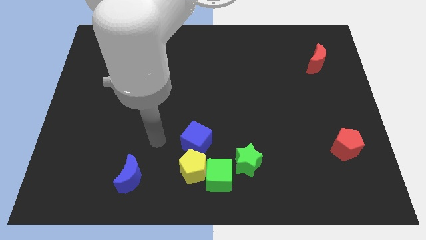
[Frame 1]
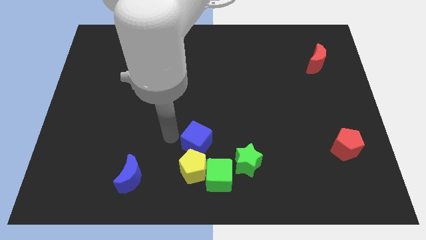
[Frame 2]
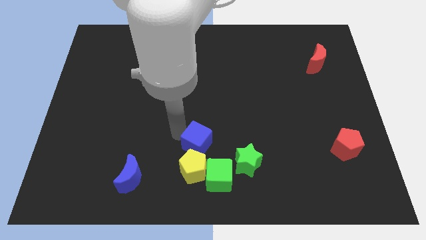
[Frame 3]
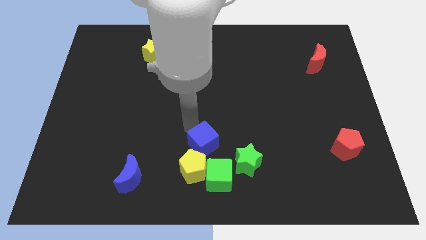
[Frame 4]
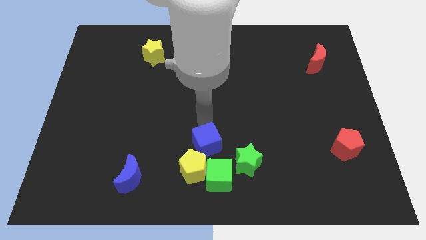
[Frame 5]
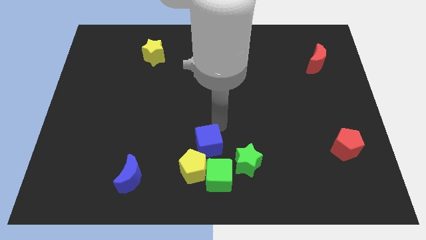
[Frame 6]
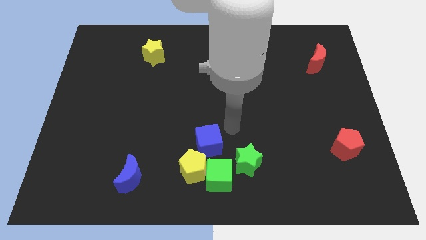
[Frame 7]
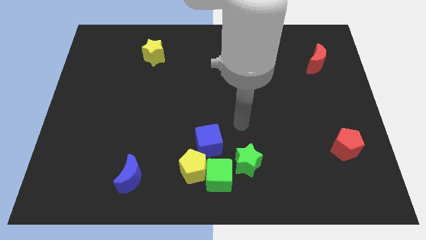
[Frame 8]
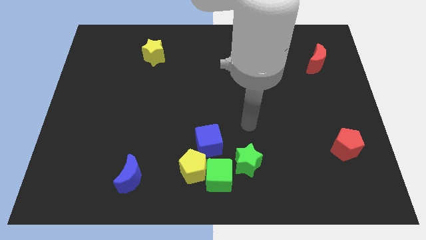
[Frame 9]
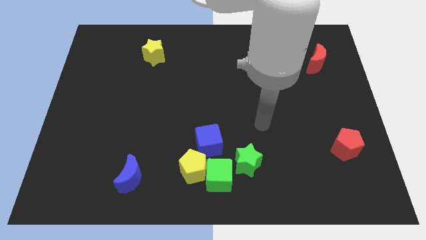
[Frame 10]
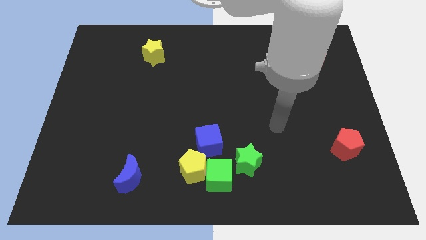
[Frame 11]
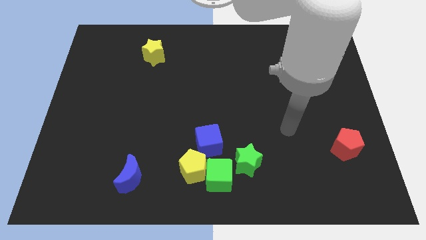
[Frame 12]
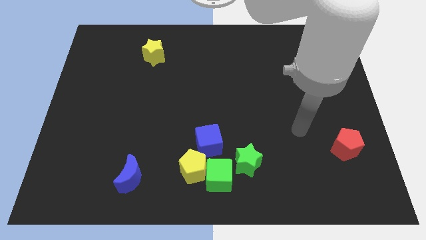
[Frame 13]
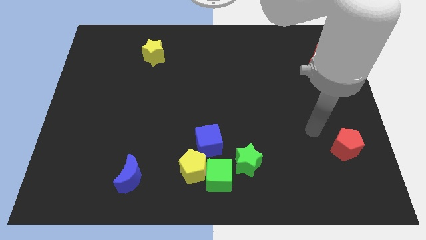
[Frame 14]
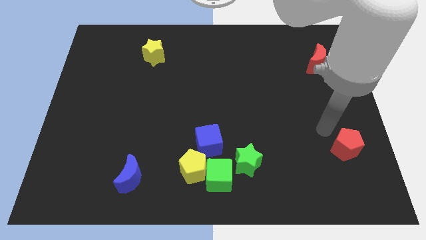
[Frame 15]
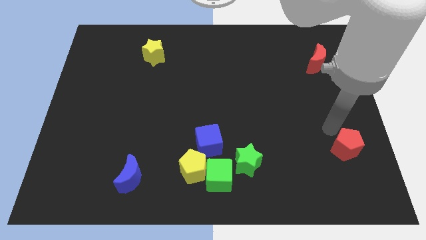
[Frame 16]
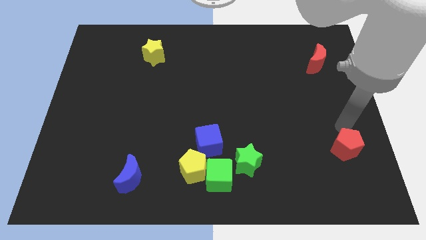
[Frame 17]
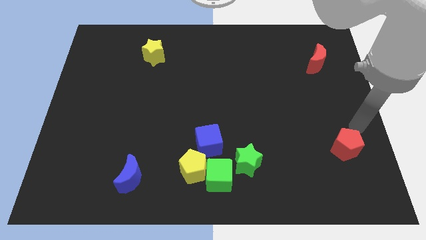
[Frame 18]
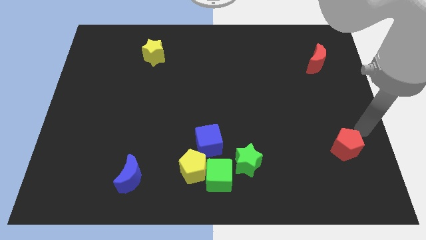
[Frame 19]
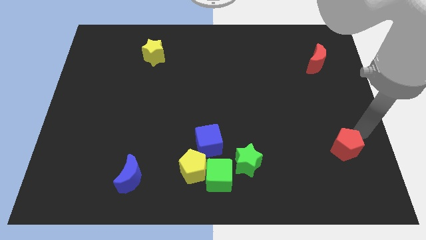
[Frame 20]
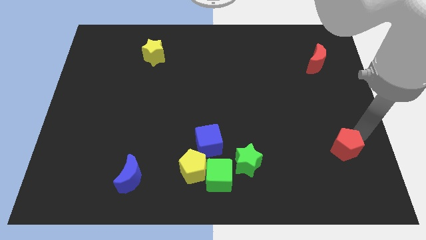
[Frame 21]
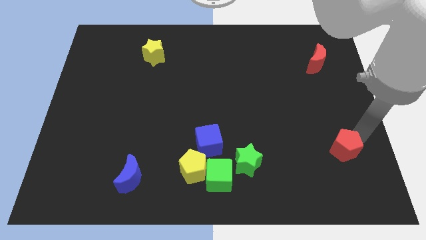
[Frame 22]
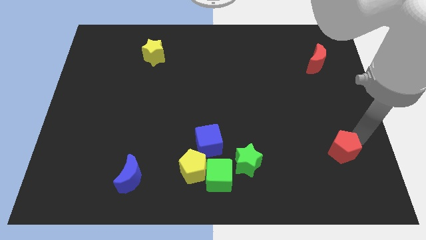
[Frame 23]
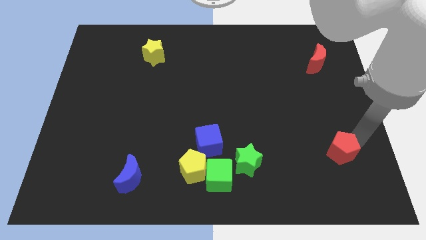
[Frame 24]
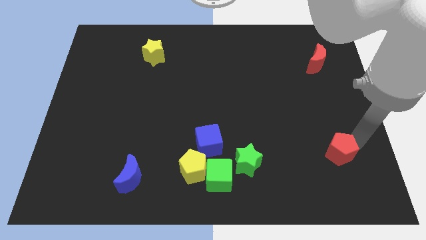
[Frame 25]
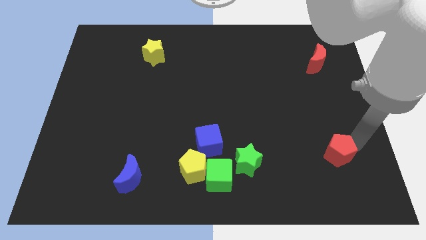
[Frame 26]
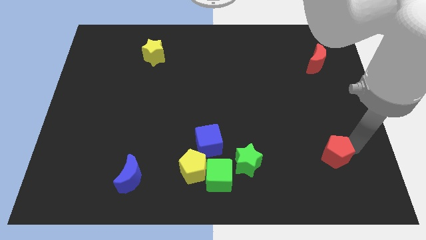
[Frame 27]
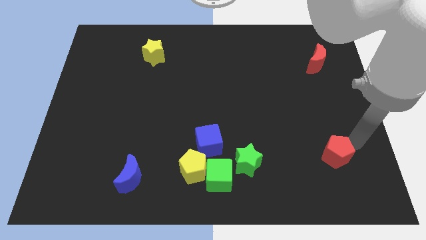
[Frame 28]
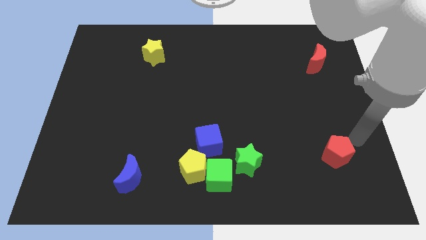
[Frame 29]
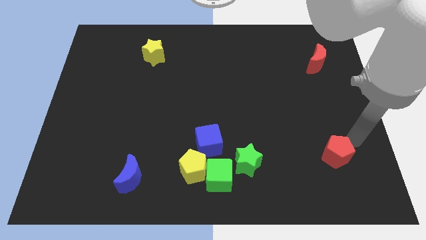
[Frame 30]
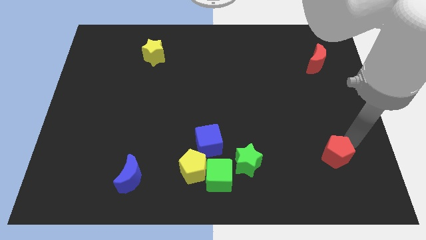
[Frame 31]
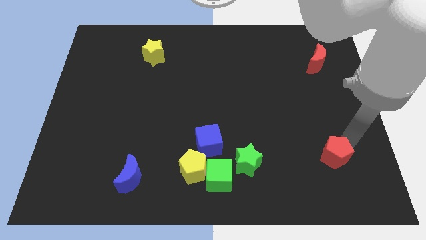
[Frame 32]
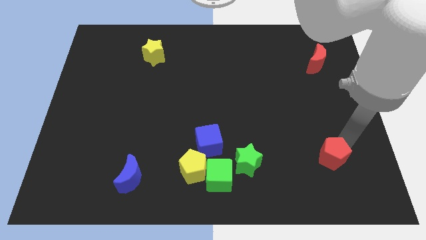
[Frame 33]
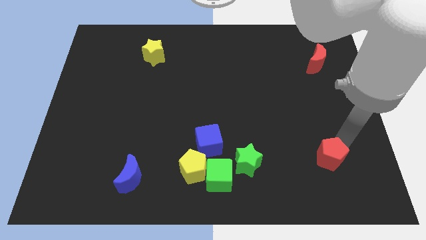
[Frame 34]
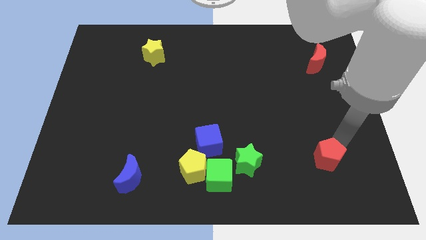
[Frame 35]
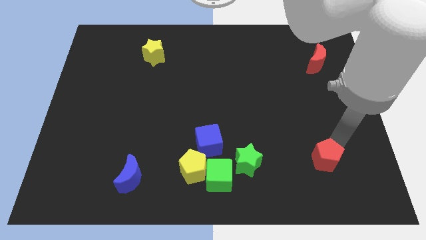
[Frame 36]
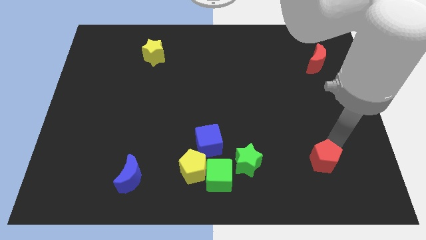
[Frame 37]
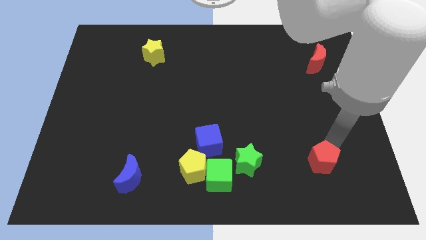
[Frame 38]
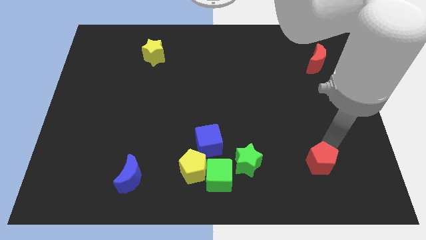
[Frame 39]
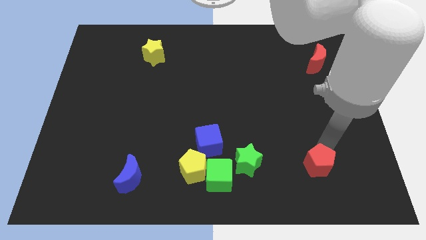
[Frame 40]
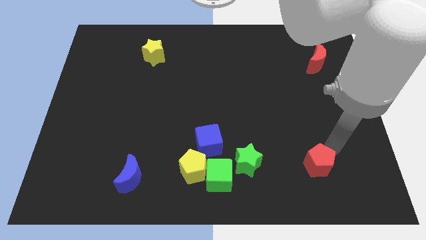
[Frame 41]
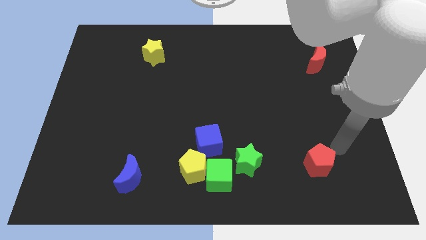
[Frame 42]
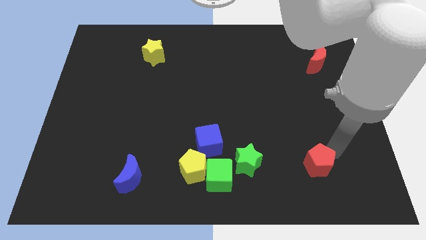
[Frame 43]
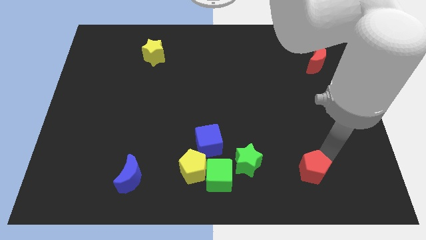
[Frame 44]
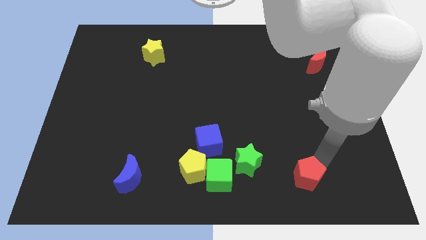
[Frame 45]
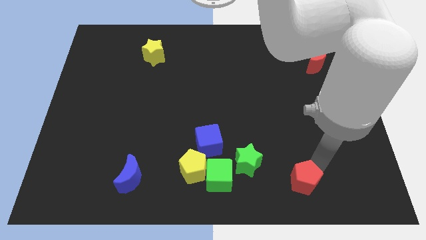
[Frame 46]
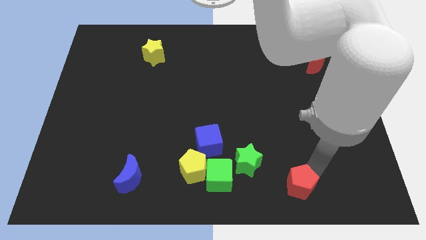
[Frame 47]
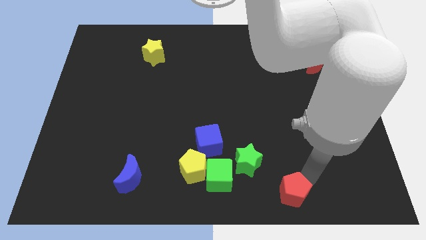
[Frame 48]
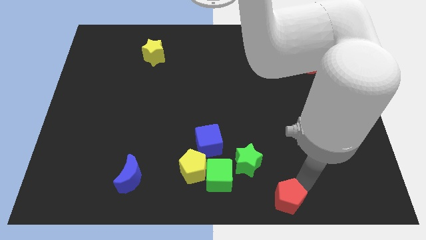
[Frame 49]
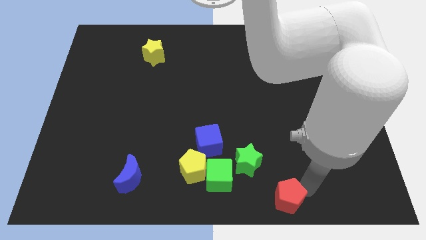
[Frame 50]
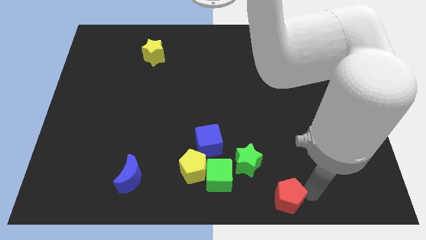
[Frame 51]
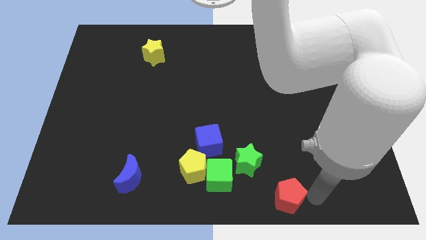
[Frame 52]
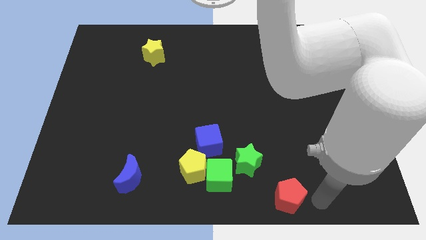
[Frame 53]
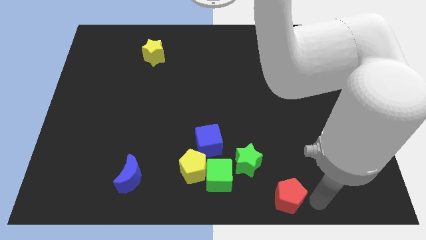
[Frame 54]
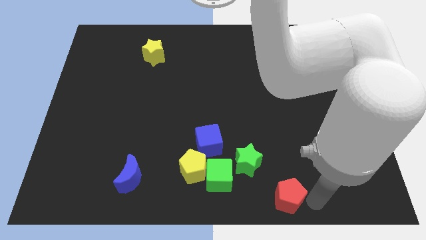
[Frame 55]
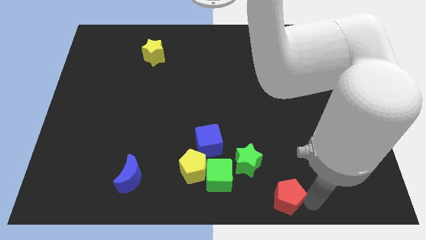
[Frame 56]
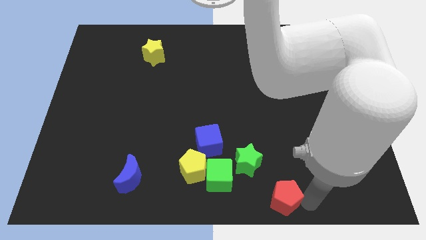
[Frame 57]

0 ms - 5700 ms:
put the red pentagon to the bottom side
